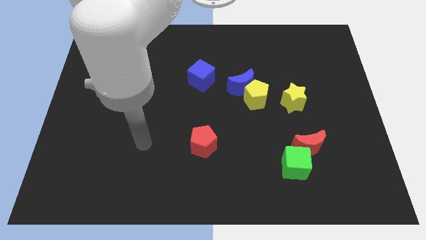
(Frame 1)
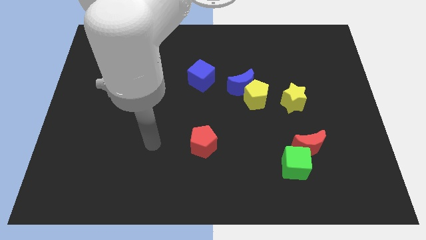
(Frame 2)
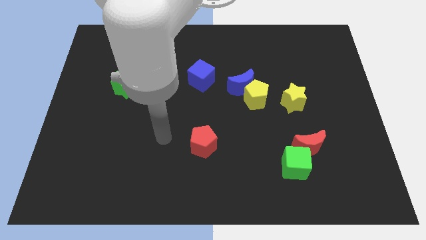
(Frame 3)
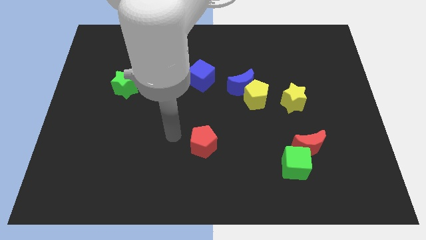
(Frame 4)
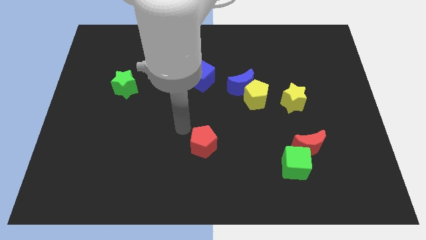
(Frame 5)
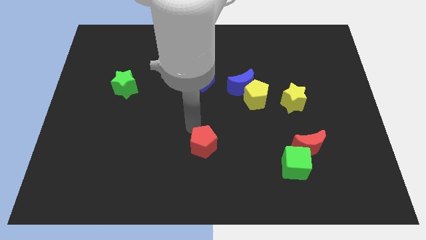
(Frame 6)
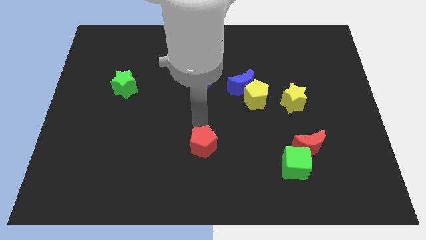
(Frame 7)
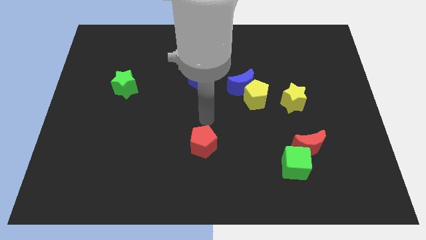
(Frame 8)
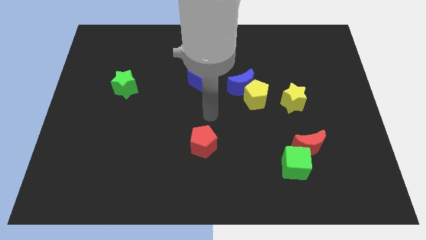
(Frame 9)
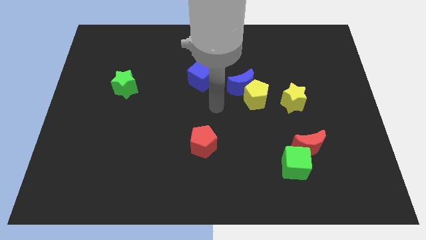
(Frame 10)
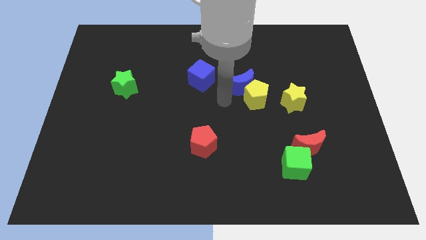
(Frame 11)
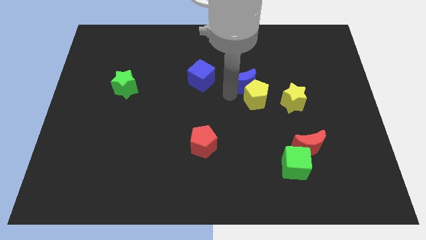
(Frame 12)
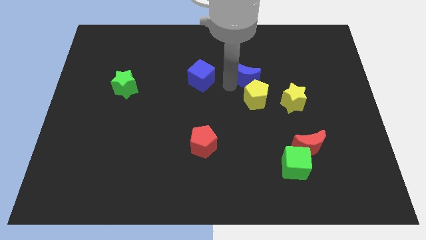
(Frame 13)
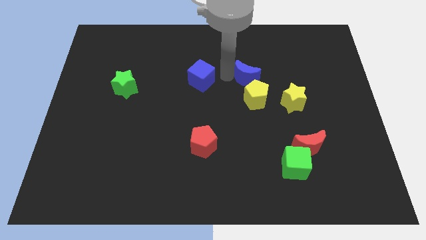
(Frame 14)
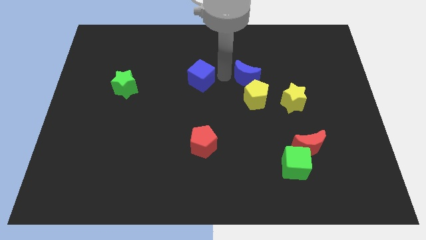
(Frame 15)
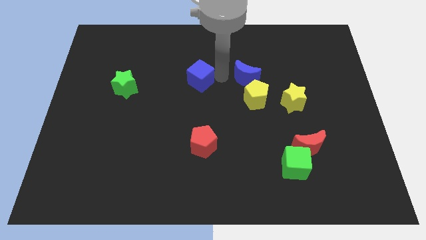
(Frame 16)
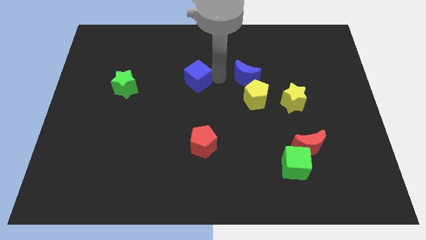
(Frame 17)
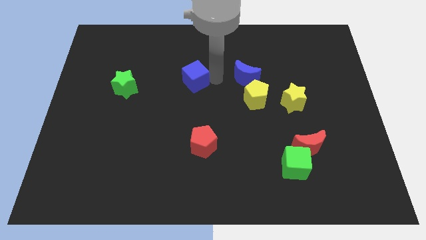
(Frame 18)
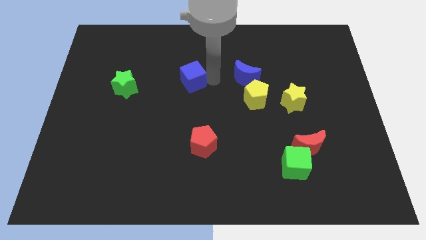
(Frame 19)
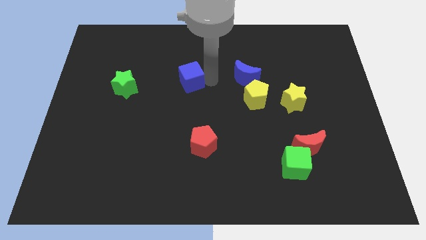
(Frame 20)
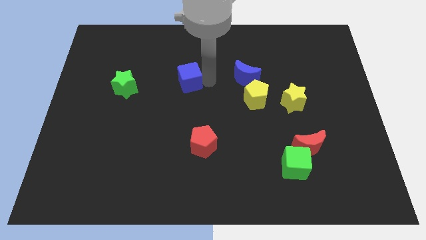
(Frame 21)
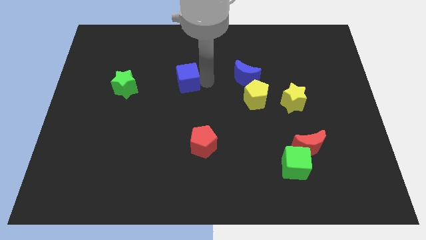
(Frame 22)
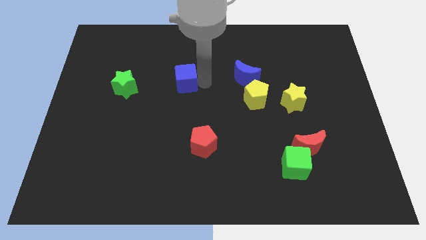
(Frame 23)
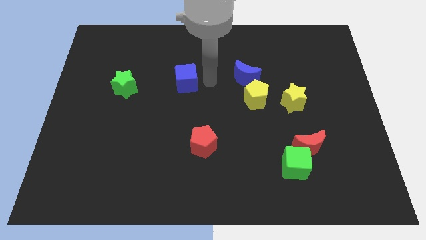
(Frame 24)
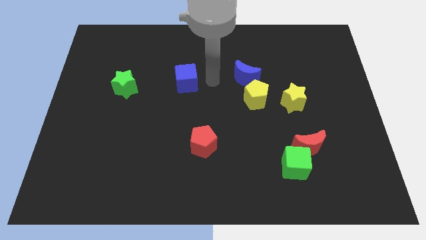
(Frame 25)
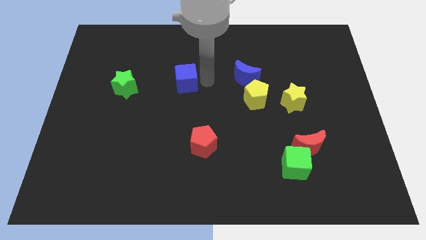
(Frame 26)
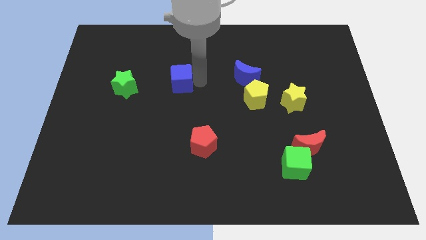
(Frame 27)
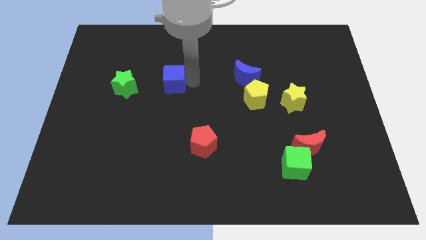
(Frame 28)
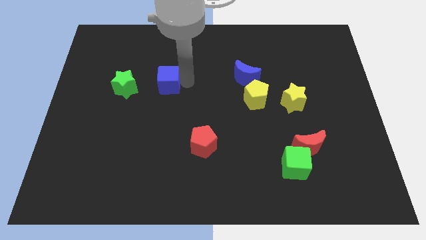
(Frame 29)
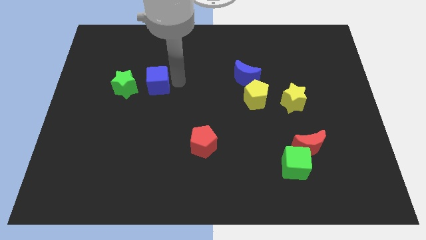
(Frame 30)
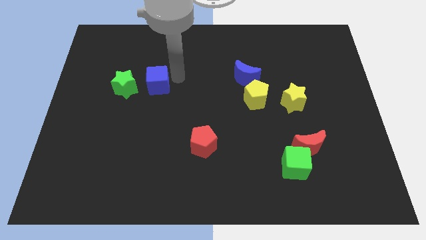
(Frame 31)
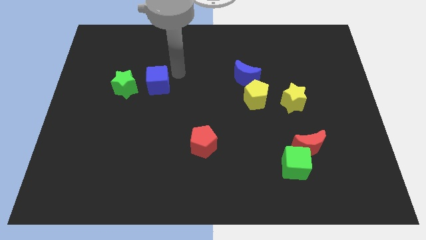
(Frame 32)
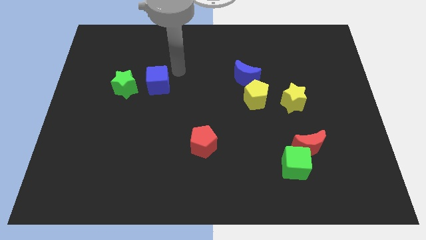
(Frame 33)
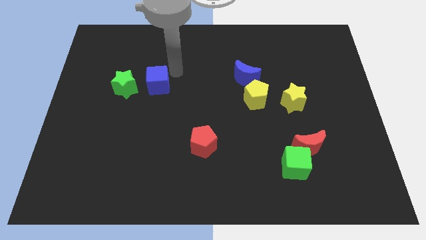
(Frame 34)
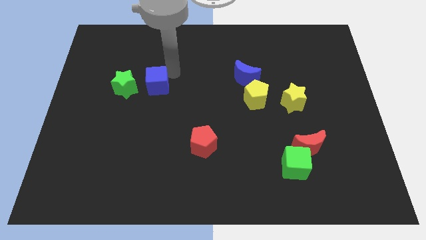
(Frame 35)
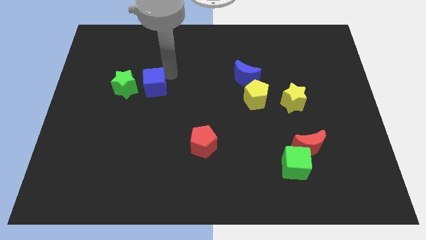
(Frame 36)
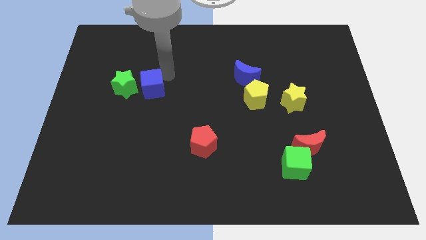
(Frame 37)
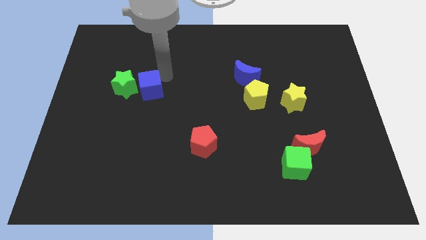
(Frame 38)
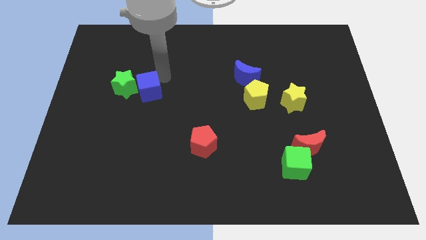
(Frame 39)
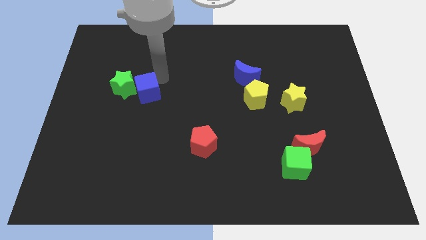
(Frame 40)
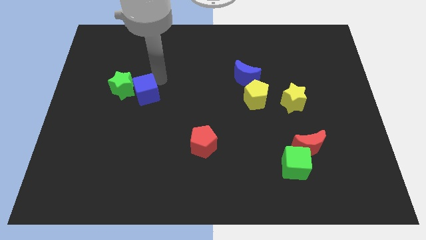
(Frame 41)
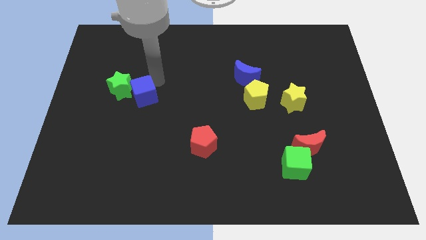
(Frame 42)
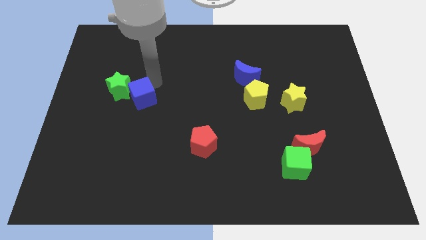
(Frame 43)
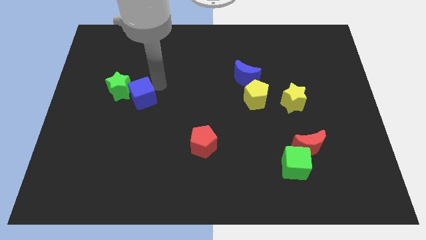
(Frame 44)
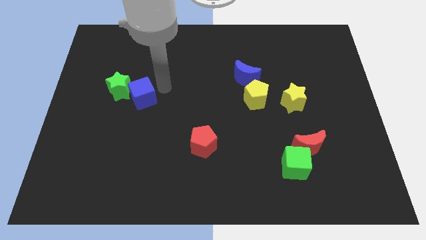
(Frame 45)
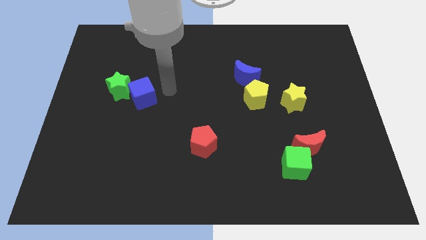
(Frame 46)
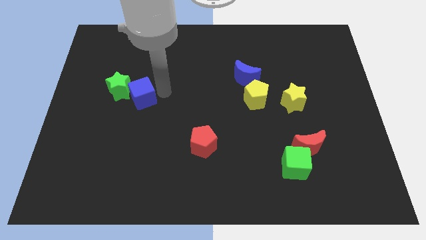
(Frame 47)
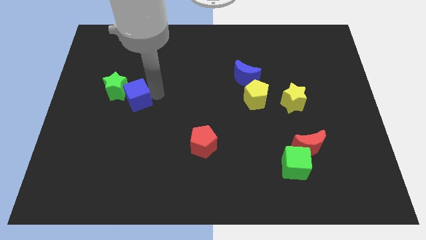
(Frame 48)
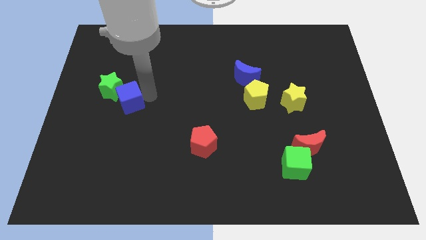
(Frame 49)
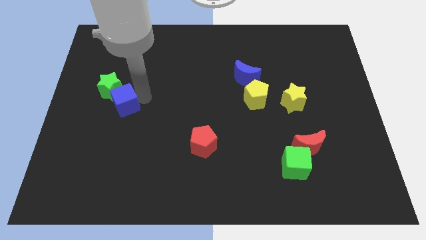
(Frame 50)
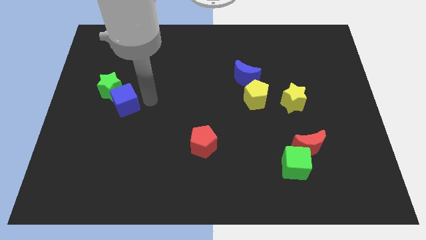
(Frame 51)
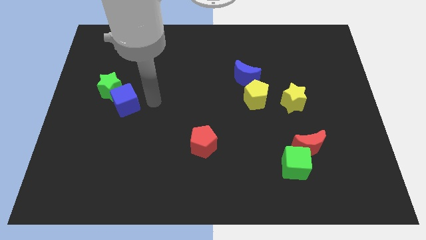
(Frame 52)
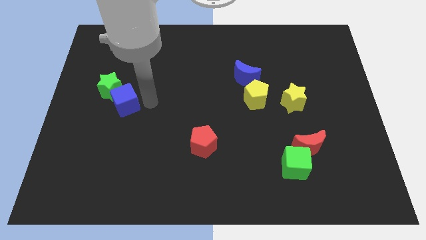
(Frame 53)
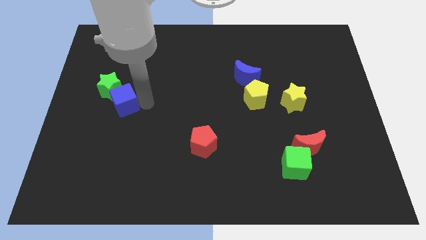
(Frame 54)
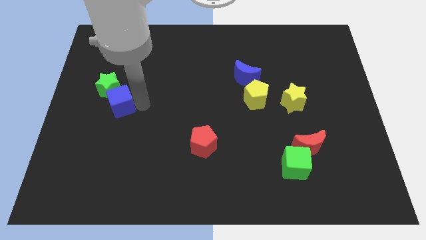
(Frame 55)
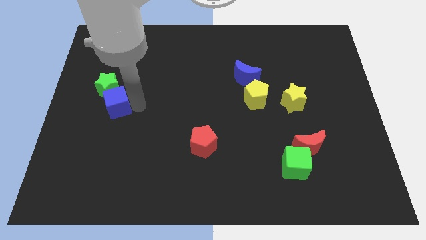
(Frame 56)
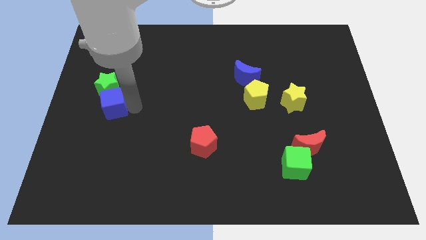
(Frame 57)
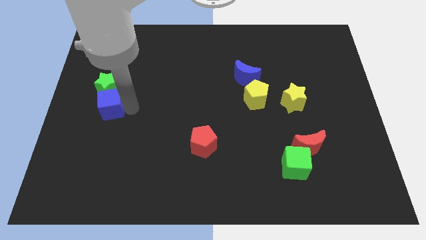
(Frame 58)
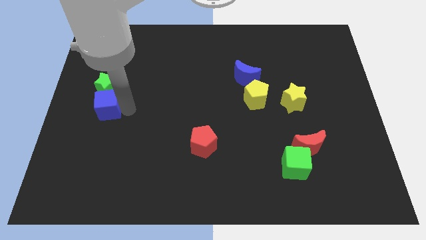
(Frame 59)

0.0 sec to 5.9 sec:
move the blue cube diagonally down and to the left of the green star

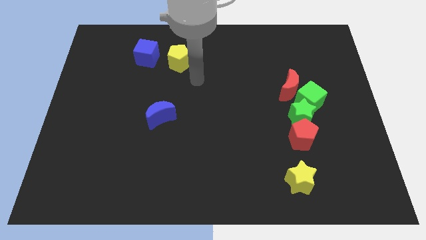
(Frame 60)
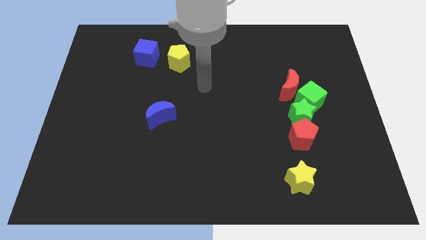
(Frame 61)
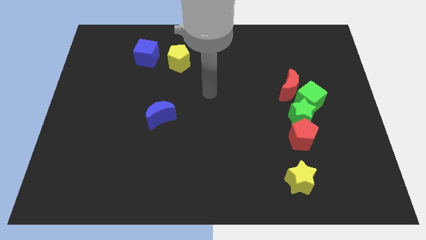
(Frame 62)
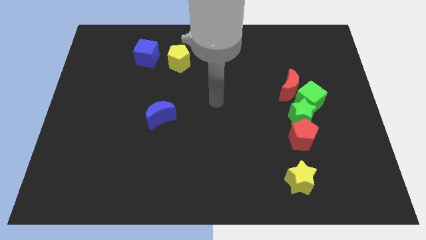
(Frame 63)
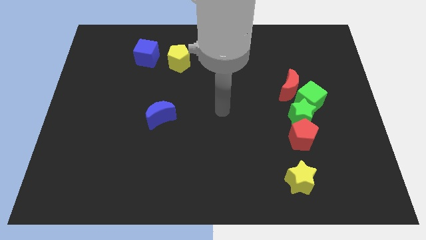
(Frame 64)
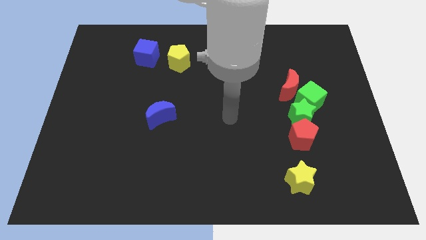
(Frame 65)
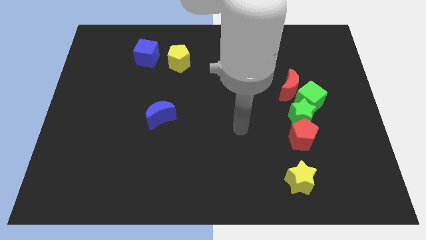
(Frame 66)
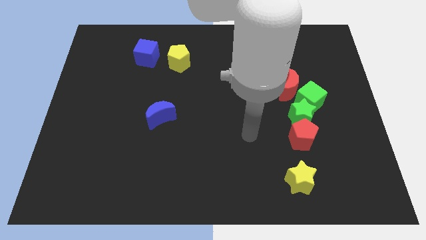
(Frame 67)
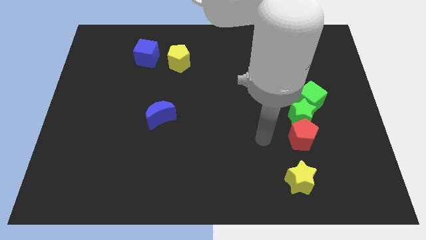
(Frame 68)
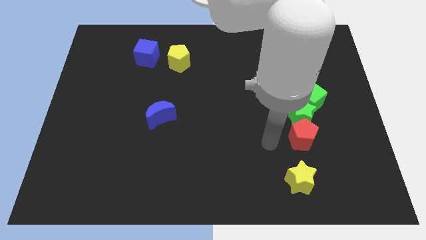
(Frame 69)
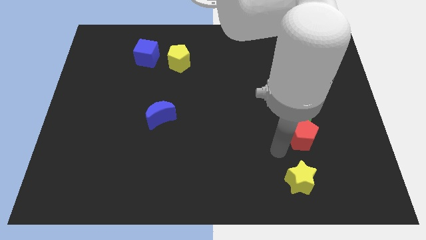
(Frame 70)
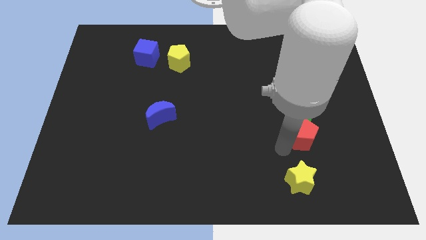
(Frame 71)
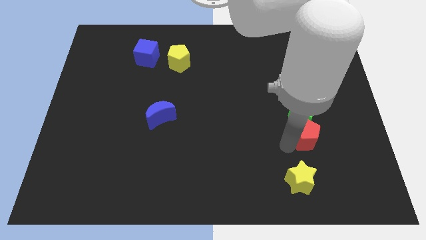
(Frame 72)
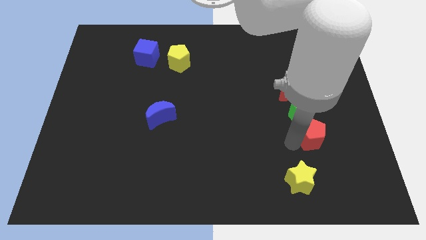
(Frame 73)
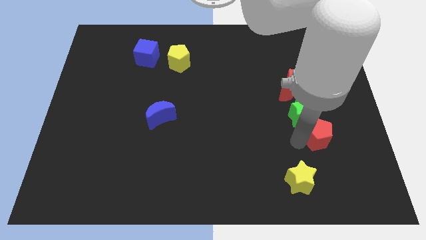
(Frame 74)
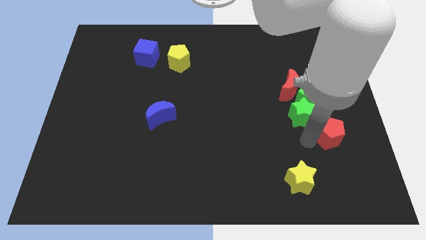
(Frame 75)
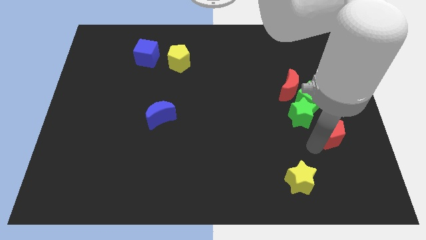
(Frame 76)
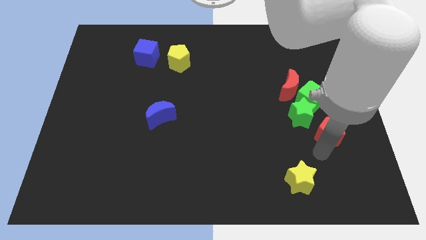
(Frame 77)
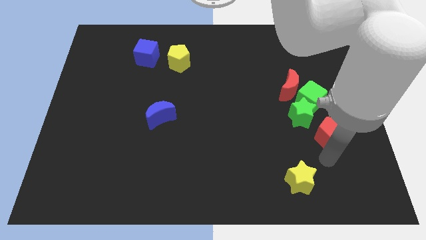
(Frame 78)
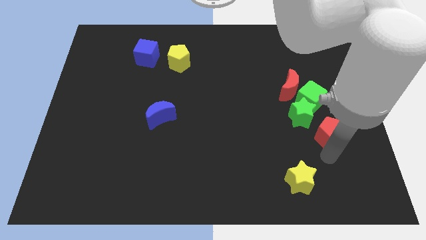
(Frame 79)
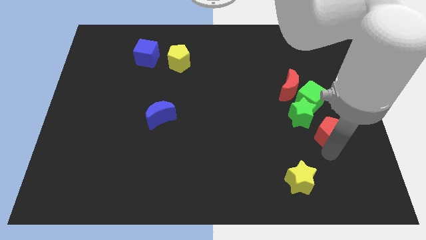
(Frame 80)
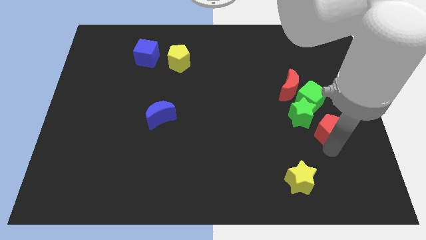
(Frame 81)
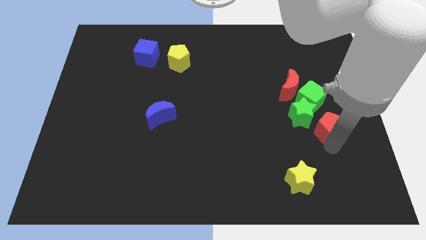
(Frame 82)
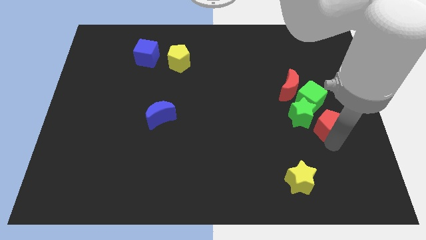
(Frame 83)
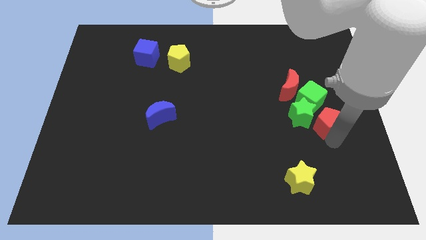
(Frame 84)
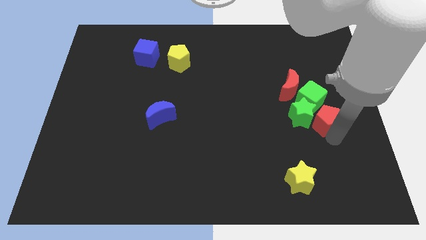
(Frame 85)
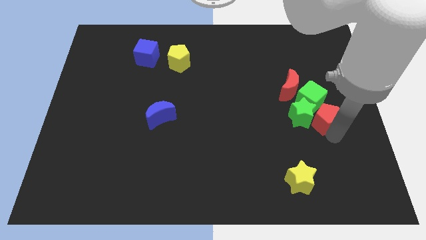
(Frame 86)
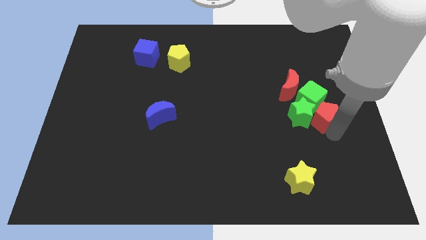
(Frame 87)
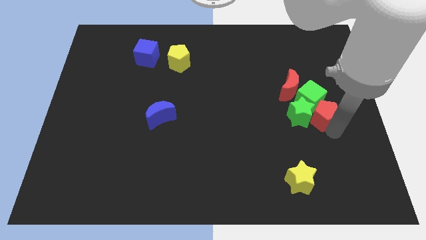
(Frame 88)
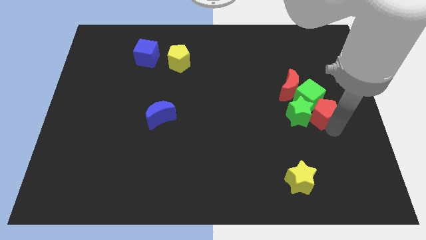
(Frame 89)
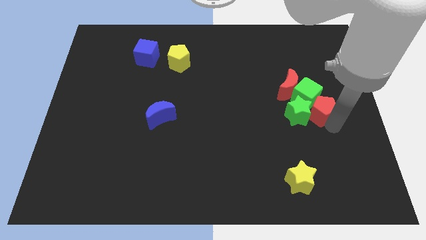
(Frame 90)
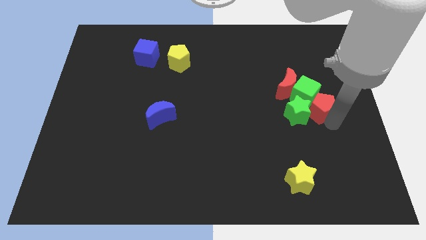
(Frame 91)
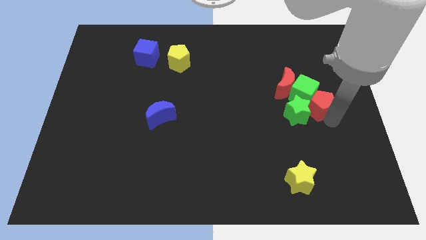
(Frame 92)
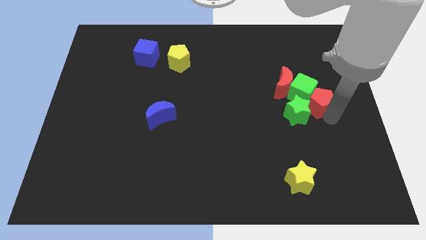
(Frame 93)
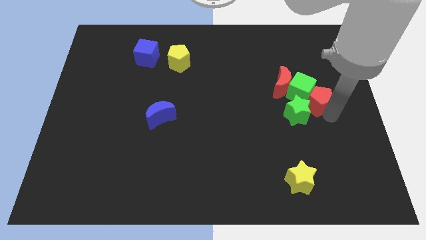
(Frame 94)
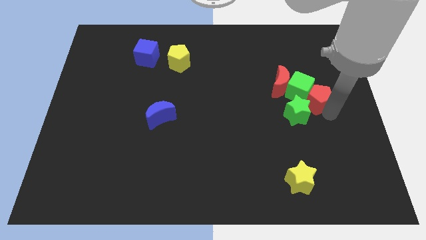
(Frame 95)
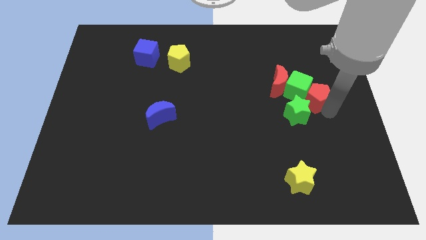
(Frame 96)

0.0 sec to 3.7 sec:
slide the red pentagon to the top of the green star
